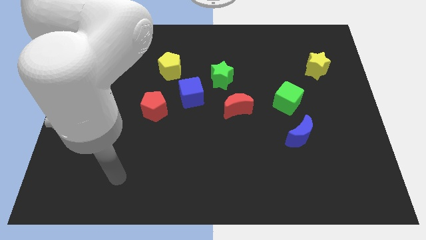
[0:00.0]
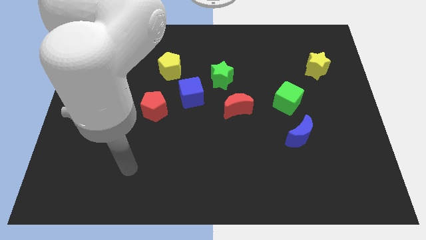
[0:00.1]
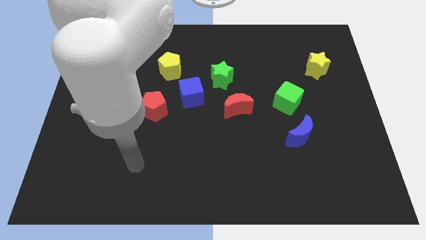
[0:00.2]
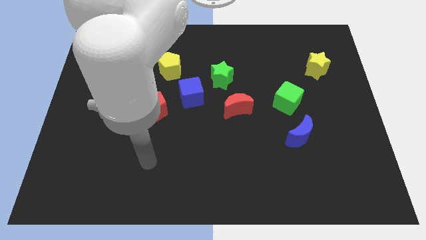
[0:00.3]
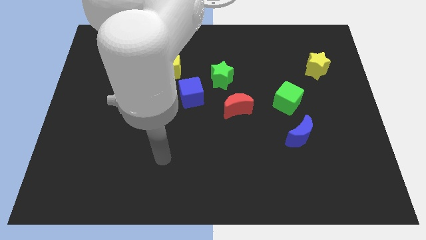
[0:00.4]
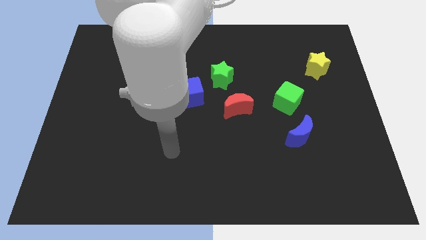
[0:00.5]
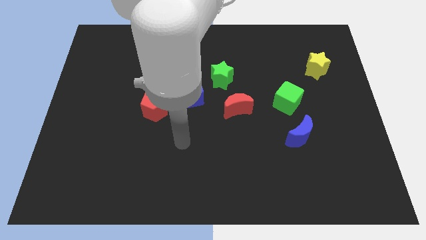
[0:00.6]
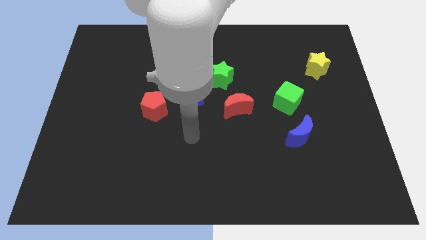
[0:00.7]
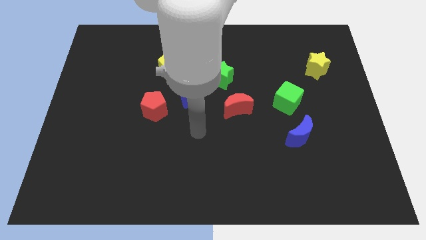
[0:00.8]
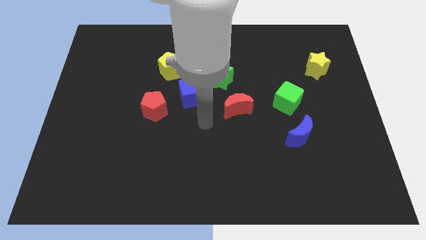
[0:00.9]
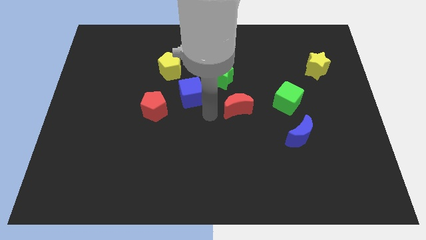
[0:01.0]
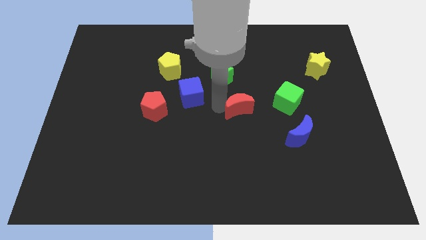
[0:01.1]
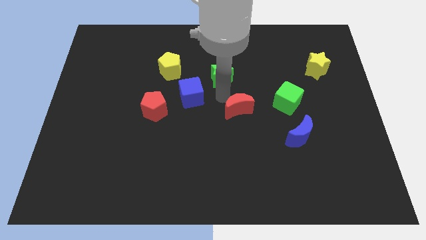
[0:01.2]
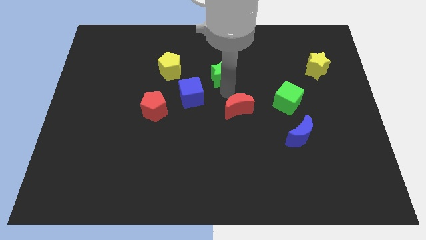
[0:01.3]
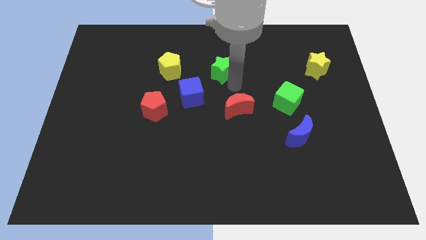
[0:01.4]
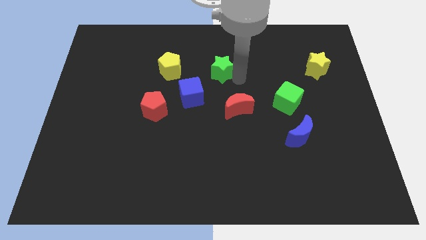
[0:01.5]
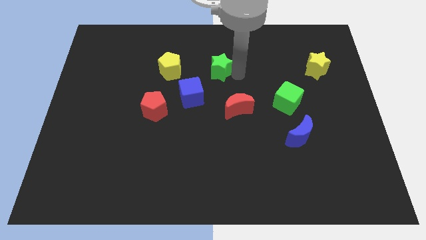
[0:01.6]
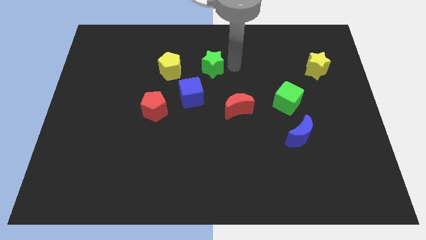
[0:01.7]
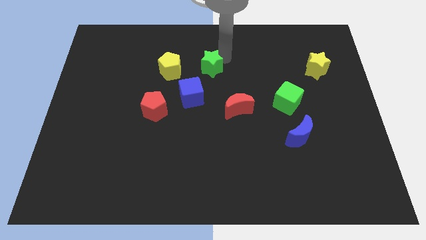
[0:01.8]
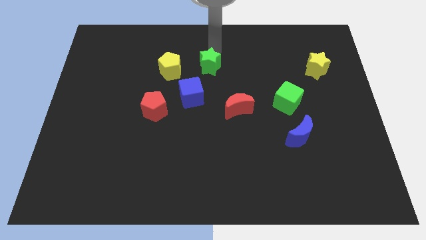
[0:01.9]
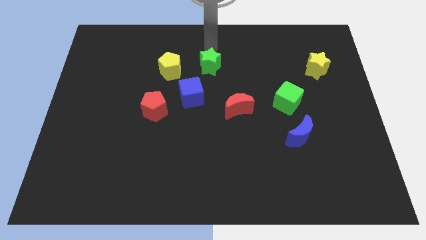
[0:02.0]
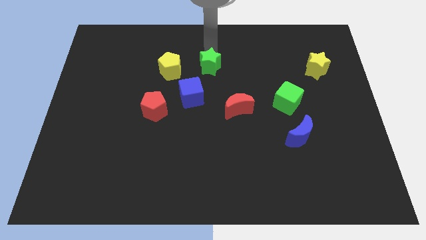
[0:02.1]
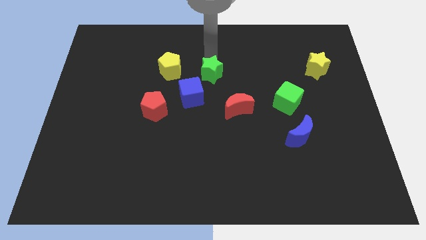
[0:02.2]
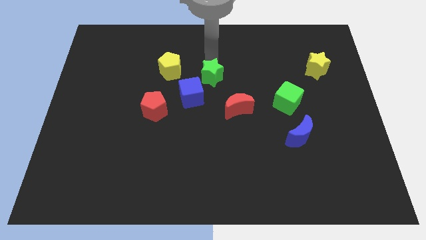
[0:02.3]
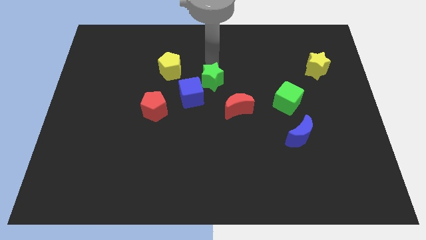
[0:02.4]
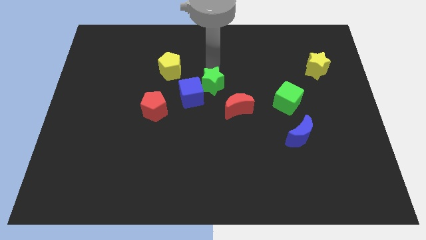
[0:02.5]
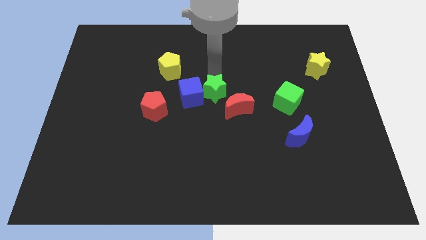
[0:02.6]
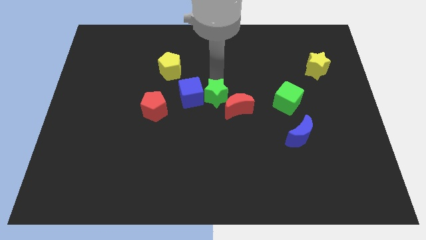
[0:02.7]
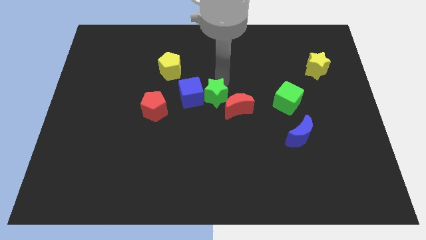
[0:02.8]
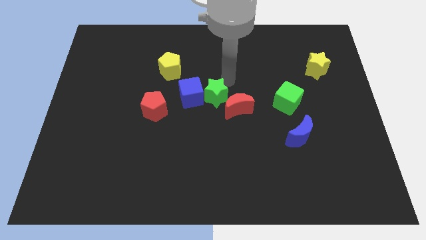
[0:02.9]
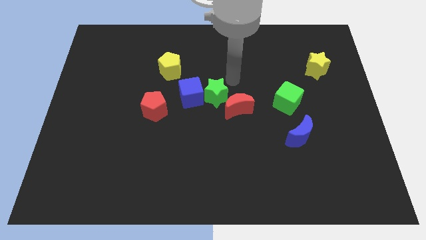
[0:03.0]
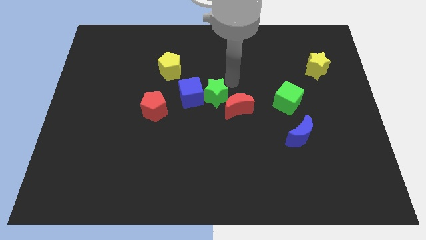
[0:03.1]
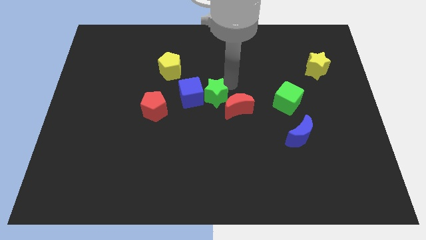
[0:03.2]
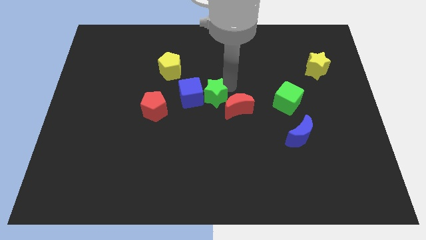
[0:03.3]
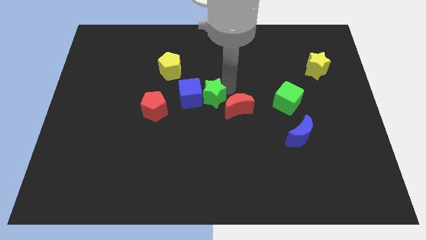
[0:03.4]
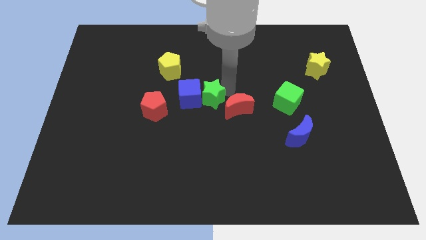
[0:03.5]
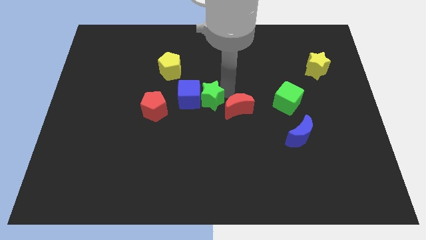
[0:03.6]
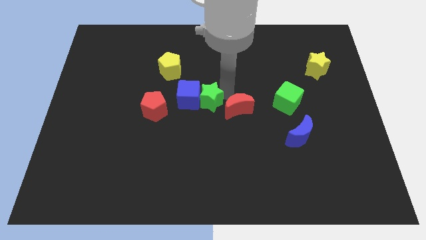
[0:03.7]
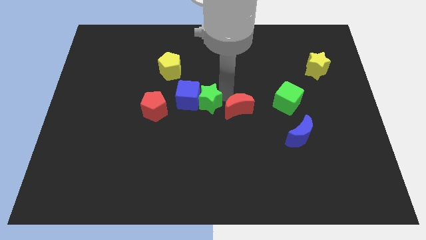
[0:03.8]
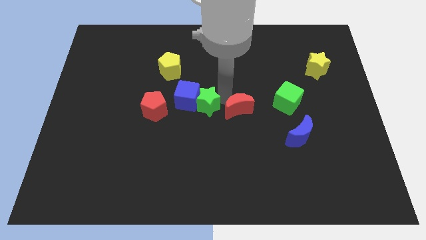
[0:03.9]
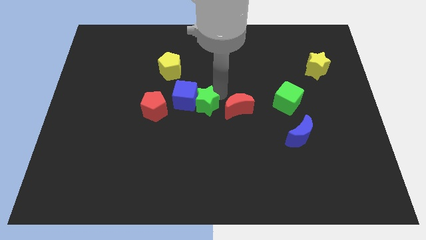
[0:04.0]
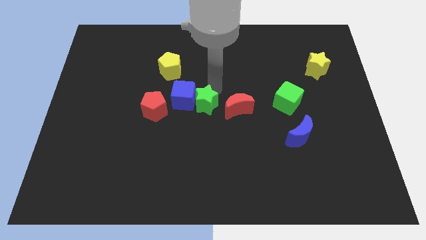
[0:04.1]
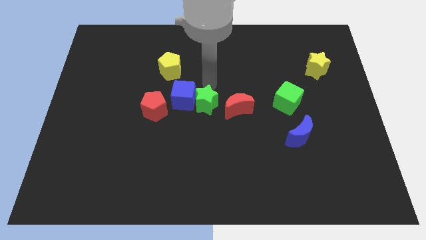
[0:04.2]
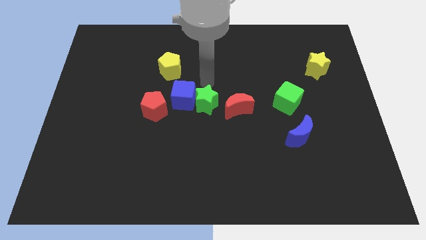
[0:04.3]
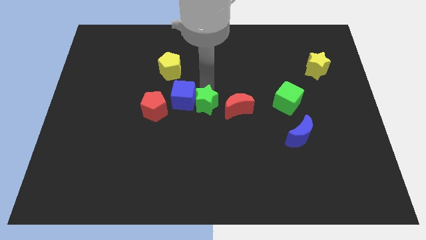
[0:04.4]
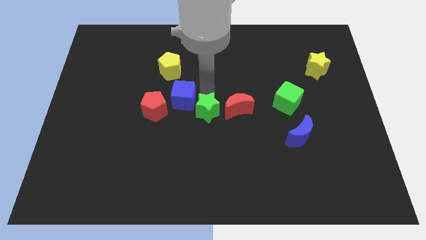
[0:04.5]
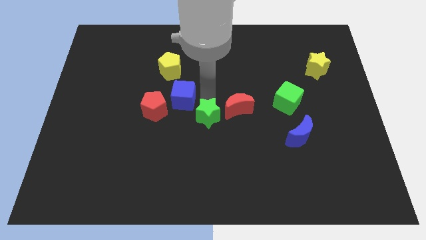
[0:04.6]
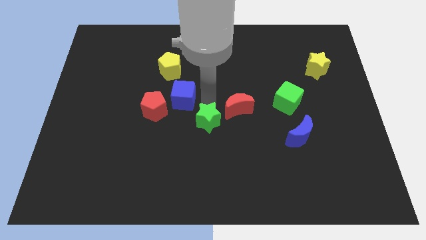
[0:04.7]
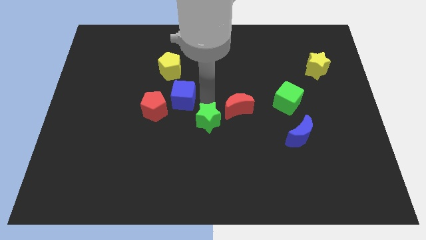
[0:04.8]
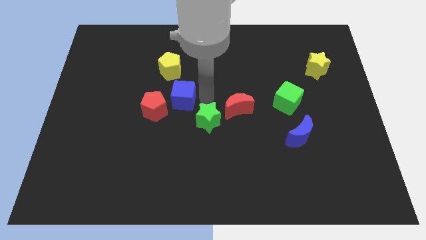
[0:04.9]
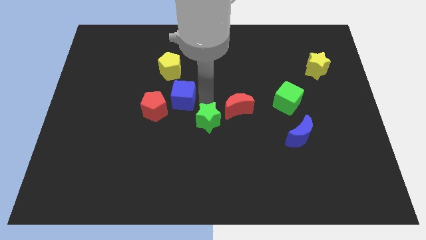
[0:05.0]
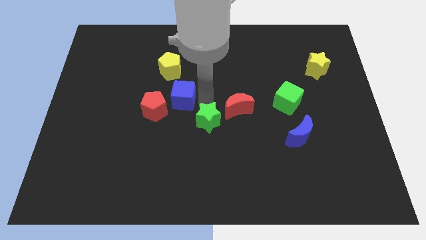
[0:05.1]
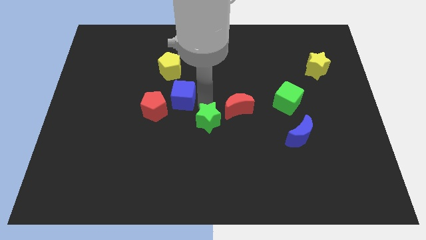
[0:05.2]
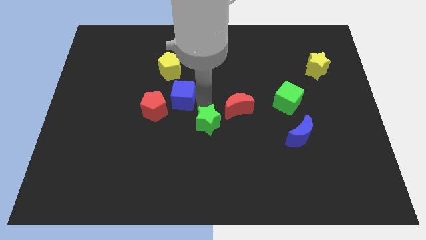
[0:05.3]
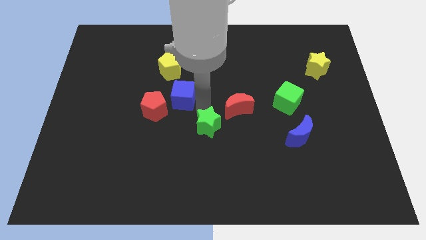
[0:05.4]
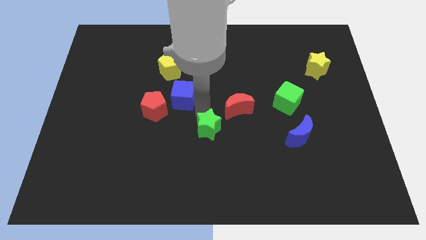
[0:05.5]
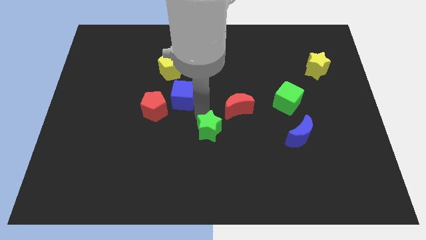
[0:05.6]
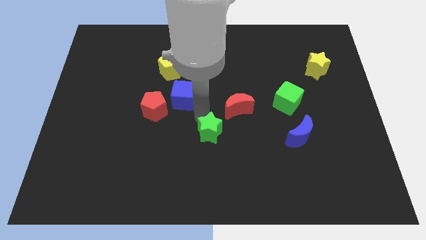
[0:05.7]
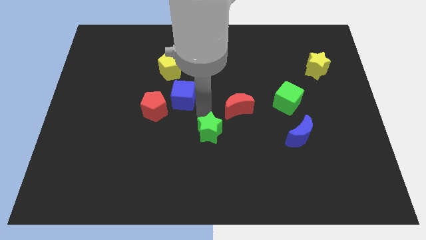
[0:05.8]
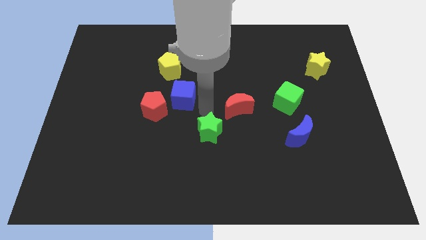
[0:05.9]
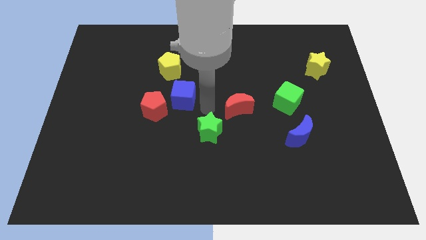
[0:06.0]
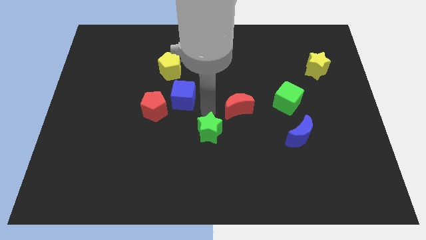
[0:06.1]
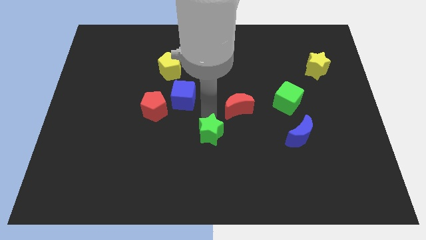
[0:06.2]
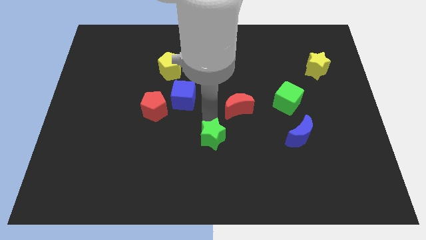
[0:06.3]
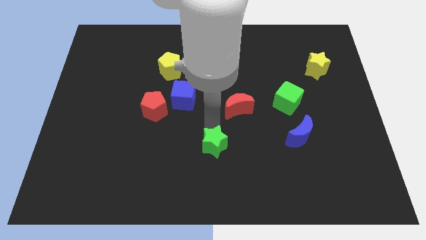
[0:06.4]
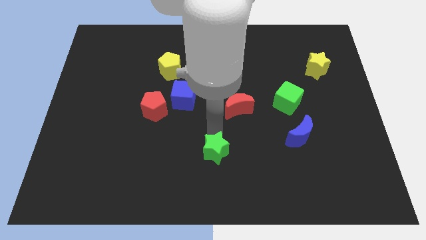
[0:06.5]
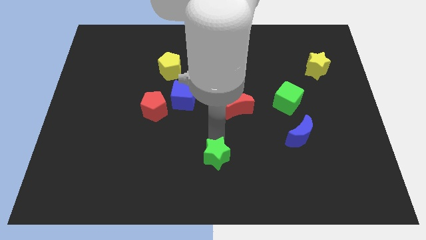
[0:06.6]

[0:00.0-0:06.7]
slide the green star to the bottom
